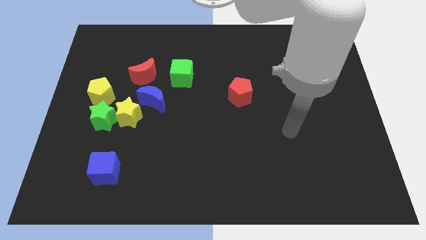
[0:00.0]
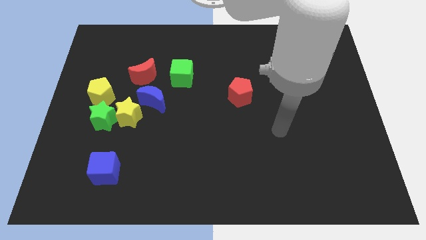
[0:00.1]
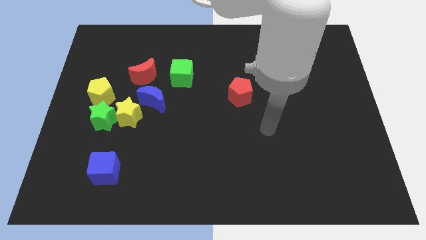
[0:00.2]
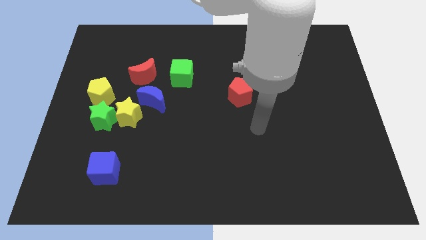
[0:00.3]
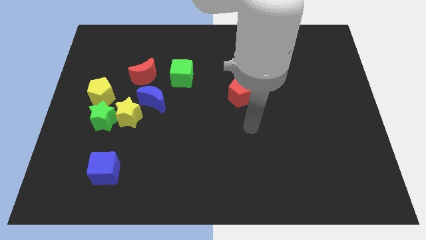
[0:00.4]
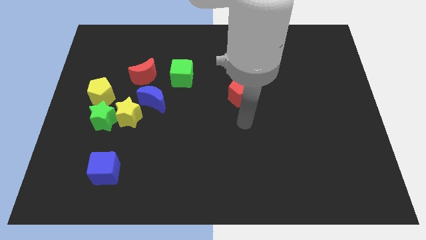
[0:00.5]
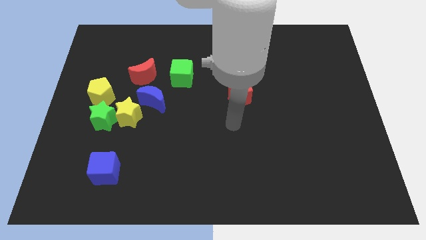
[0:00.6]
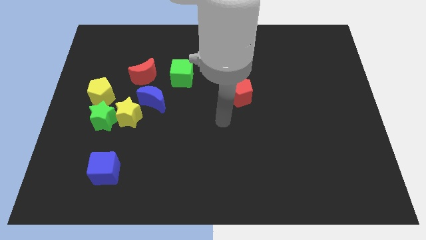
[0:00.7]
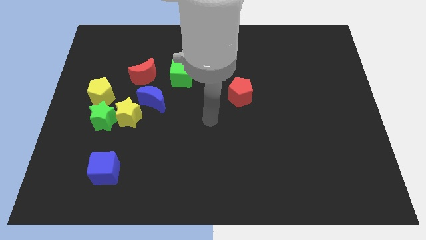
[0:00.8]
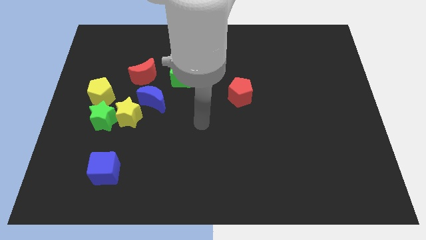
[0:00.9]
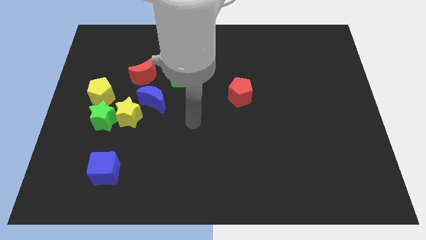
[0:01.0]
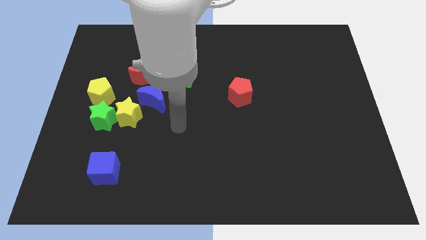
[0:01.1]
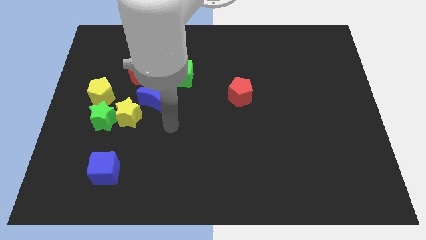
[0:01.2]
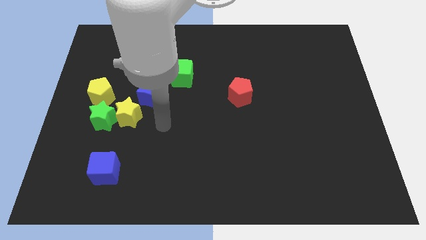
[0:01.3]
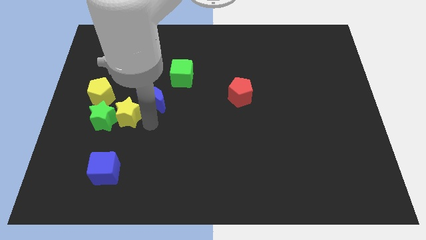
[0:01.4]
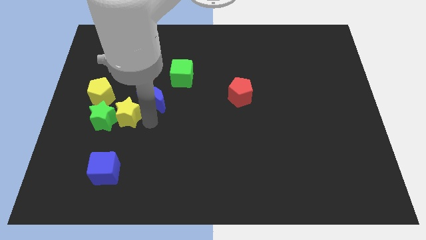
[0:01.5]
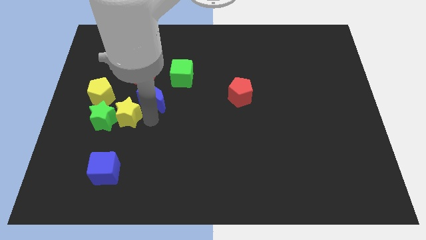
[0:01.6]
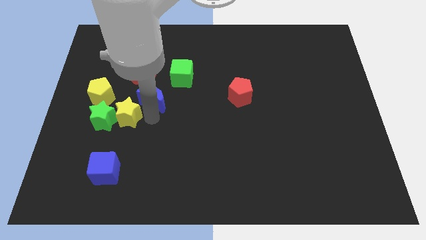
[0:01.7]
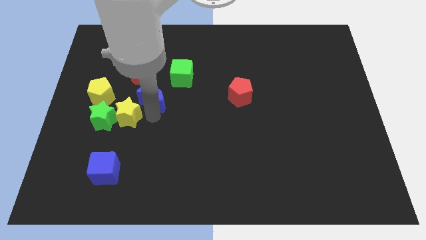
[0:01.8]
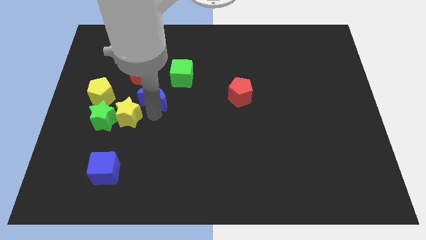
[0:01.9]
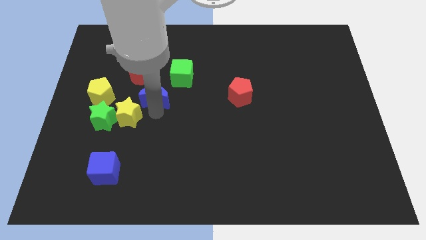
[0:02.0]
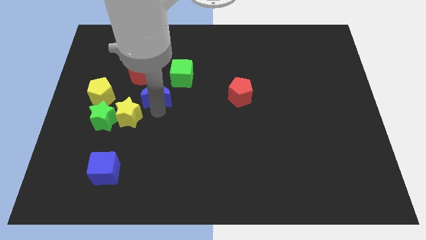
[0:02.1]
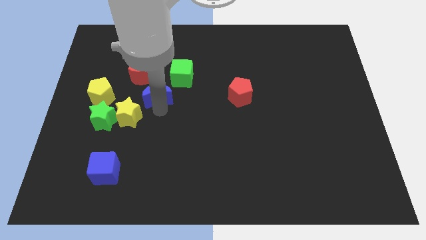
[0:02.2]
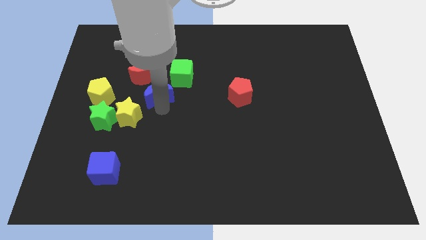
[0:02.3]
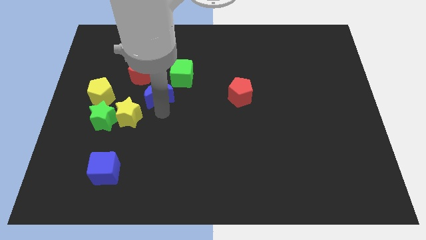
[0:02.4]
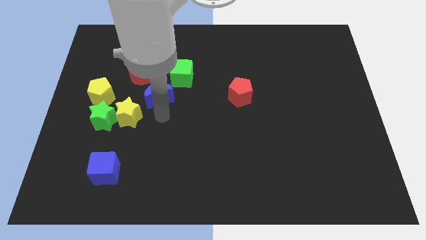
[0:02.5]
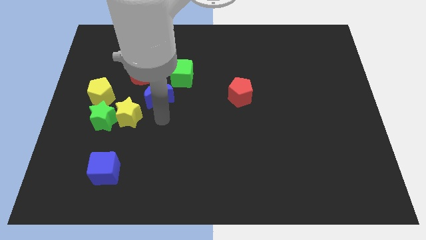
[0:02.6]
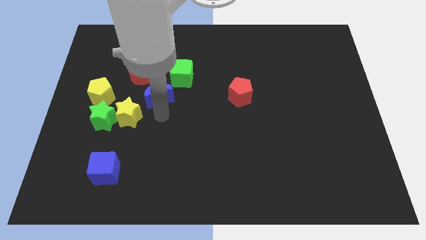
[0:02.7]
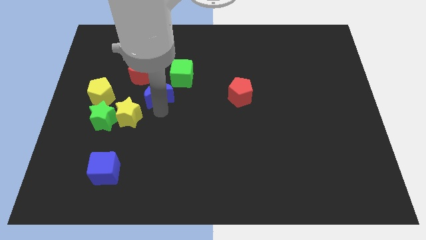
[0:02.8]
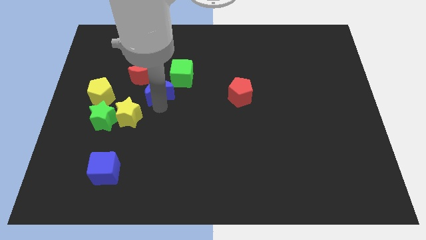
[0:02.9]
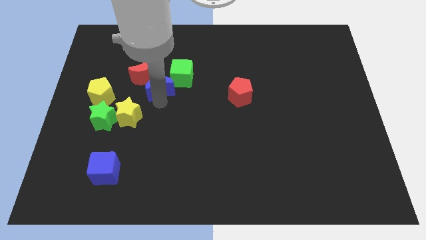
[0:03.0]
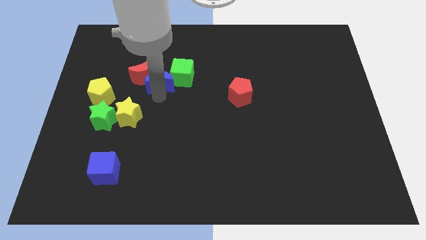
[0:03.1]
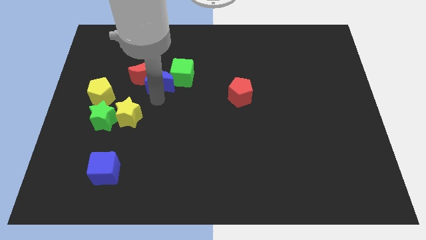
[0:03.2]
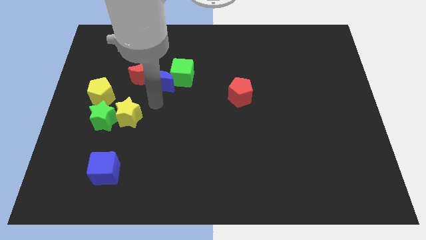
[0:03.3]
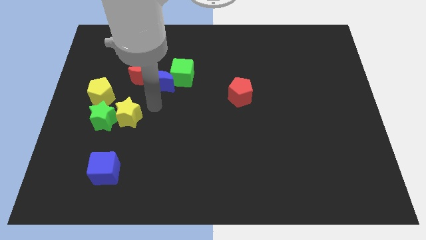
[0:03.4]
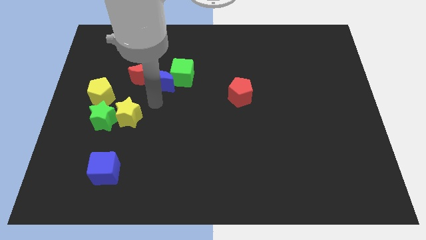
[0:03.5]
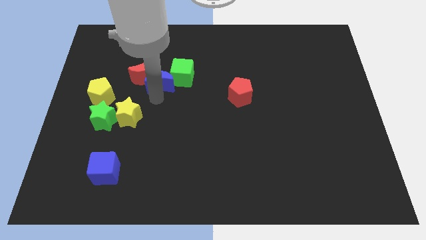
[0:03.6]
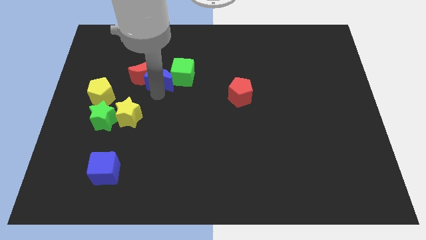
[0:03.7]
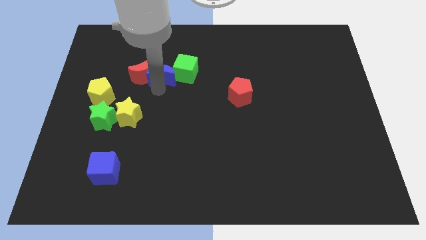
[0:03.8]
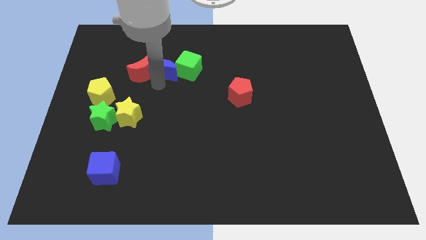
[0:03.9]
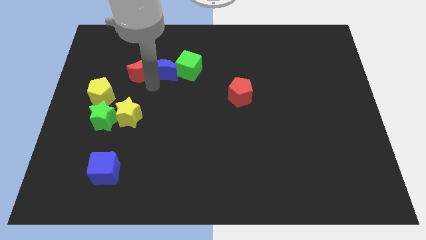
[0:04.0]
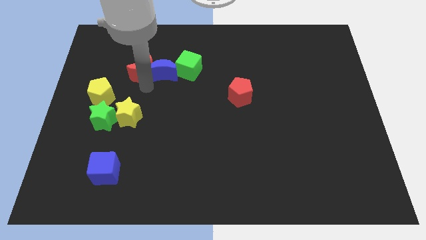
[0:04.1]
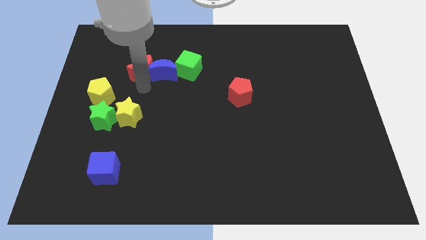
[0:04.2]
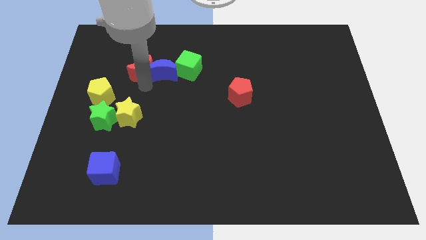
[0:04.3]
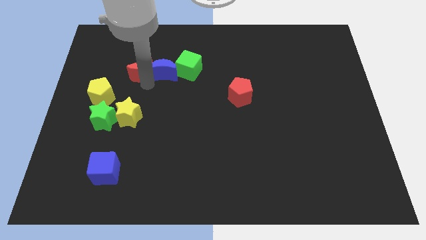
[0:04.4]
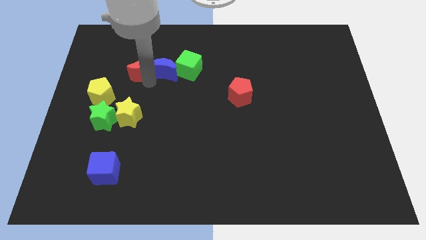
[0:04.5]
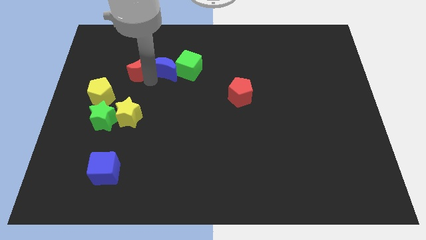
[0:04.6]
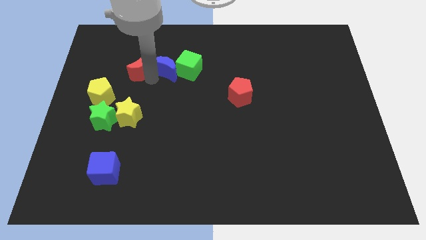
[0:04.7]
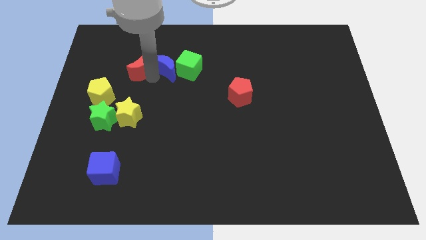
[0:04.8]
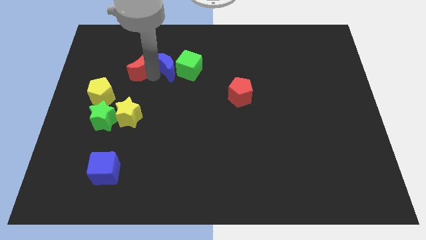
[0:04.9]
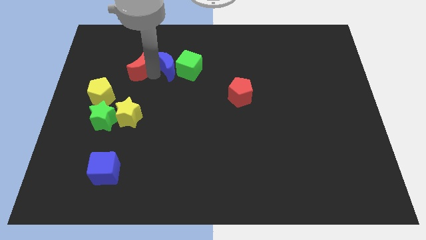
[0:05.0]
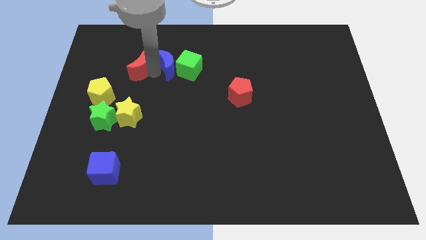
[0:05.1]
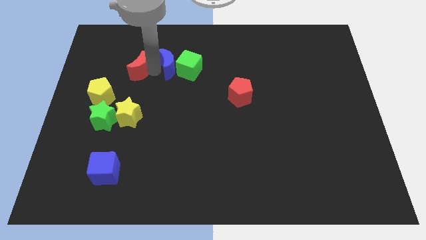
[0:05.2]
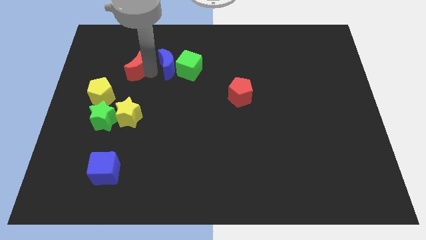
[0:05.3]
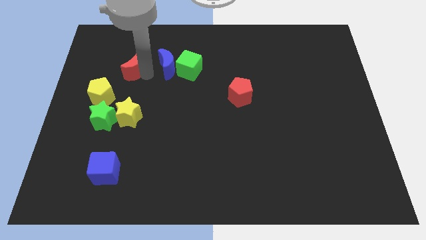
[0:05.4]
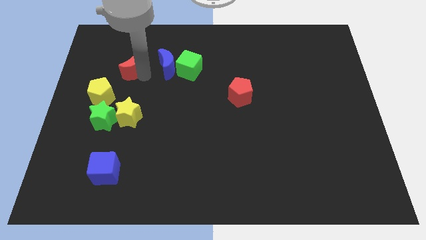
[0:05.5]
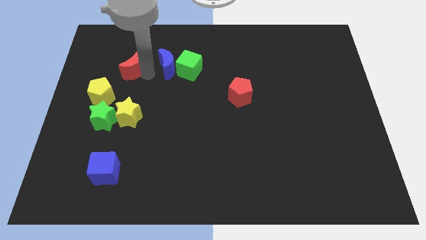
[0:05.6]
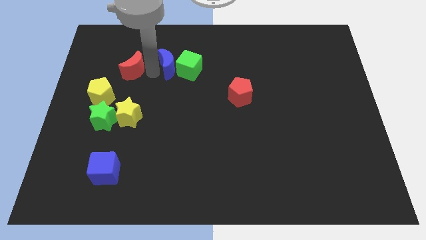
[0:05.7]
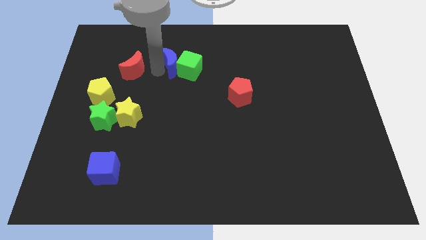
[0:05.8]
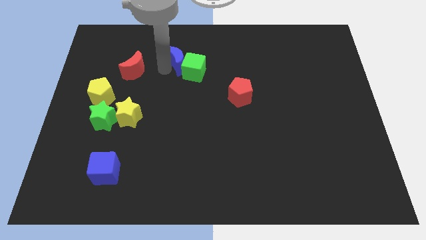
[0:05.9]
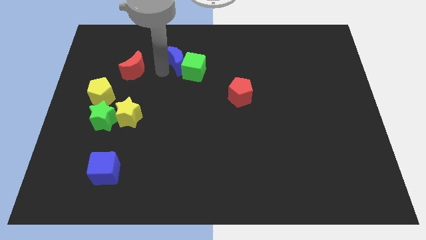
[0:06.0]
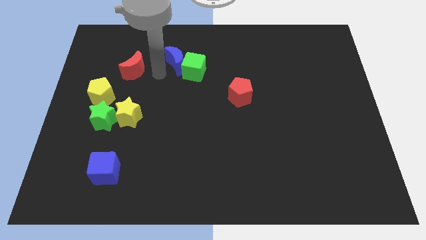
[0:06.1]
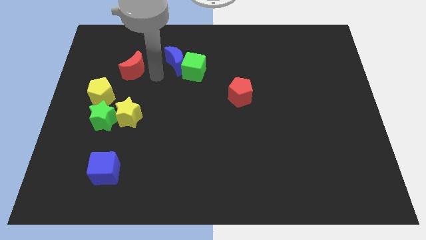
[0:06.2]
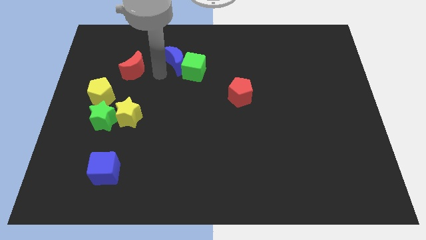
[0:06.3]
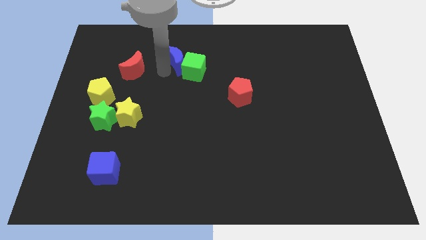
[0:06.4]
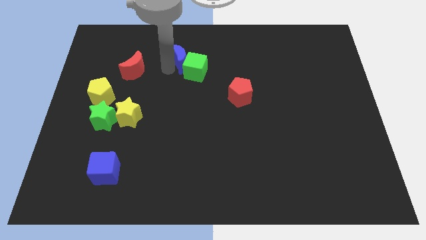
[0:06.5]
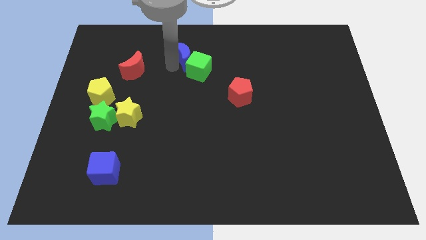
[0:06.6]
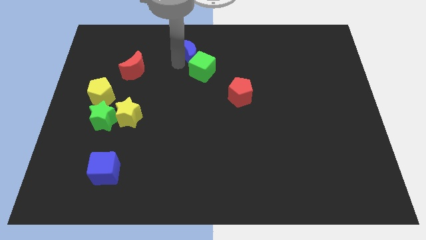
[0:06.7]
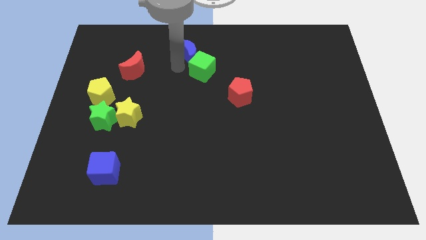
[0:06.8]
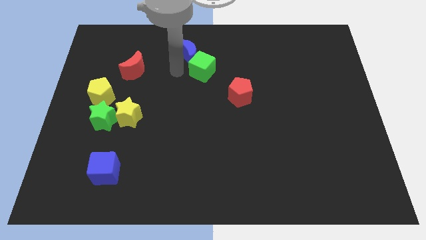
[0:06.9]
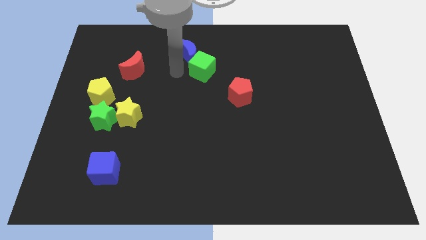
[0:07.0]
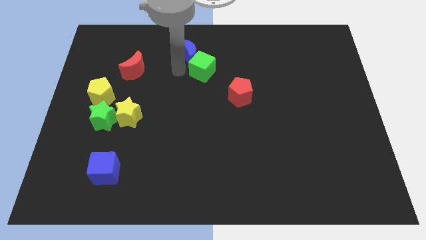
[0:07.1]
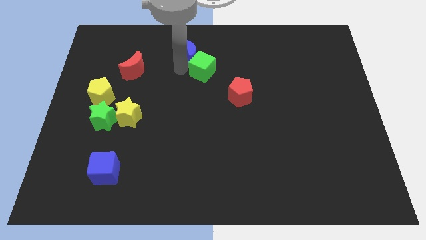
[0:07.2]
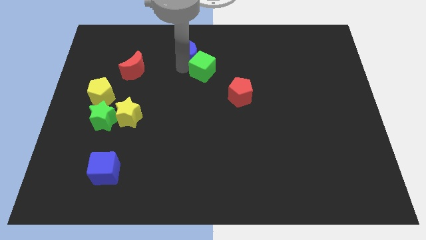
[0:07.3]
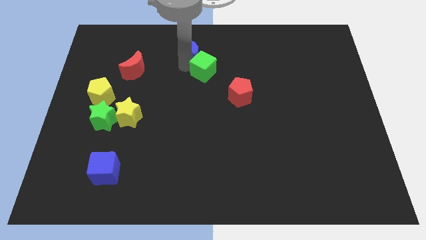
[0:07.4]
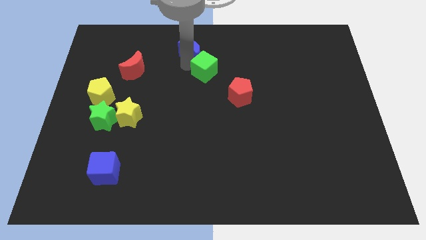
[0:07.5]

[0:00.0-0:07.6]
put the blue moon to the towards your base
